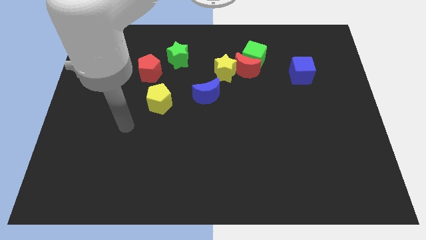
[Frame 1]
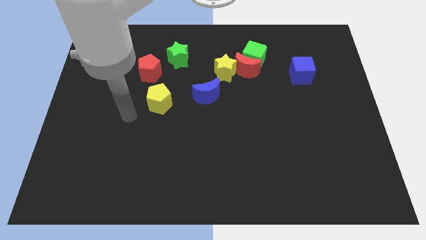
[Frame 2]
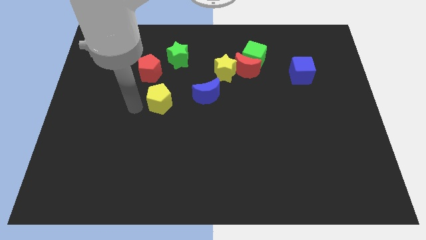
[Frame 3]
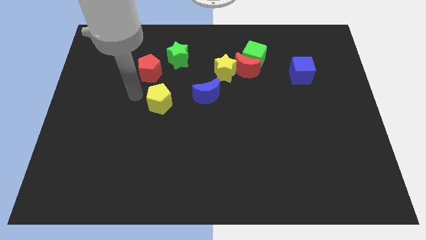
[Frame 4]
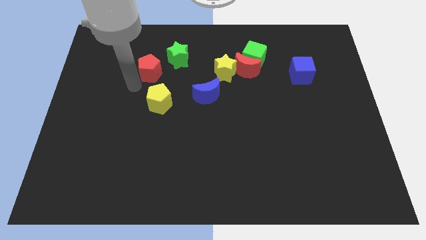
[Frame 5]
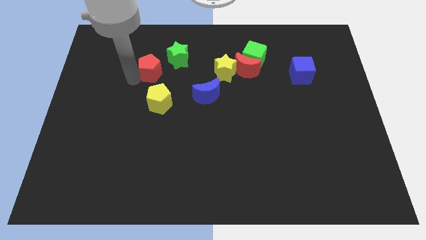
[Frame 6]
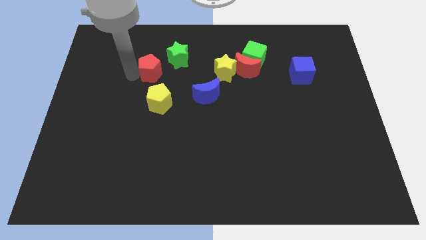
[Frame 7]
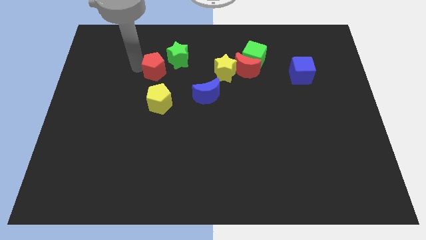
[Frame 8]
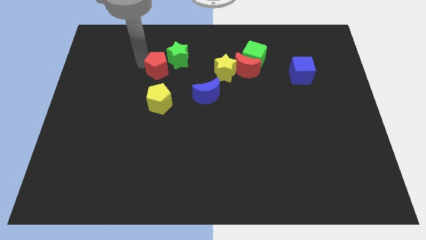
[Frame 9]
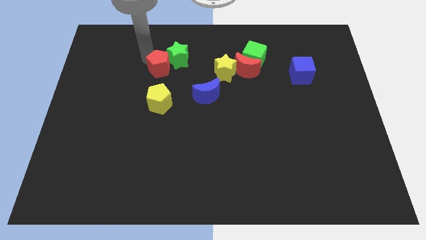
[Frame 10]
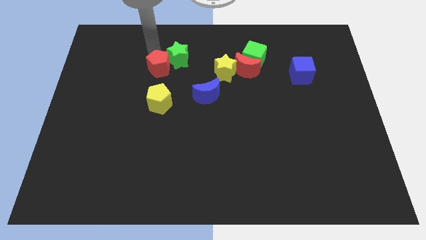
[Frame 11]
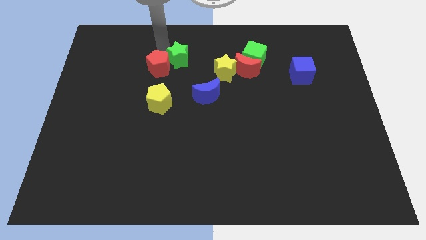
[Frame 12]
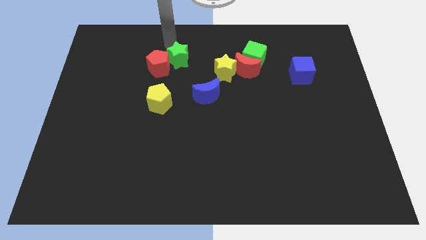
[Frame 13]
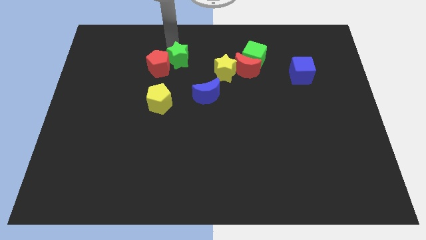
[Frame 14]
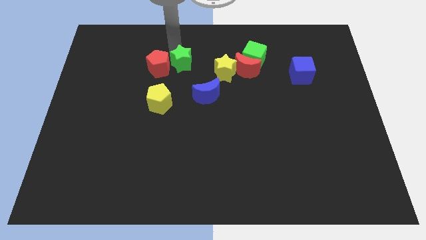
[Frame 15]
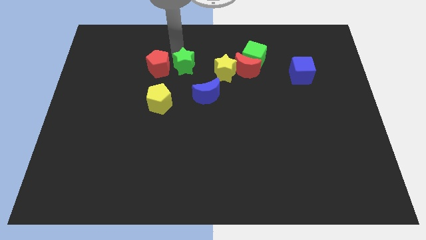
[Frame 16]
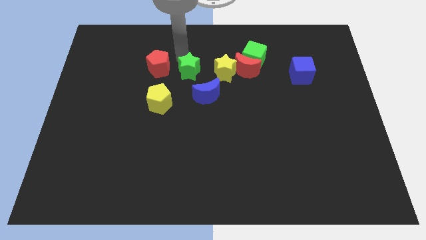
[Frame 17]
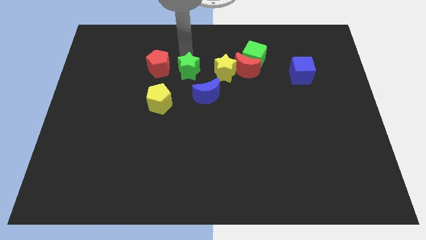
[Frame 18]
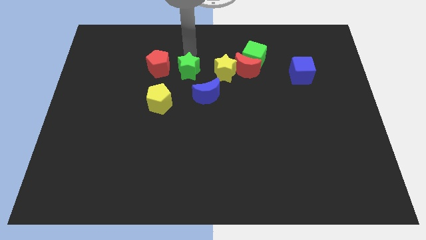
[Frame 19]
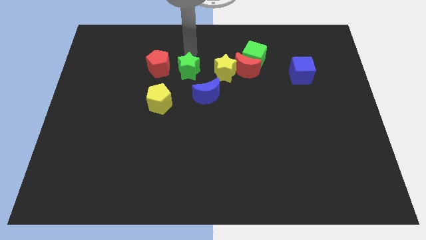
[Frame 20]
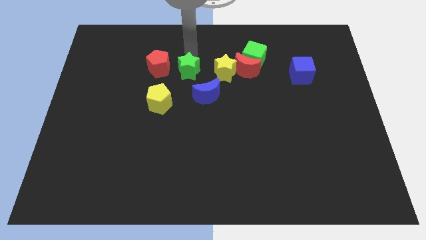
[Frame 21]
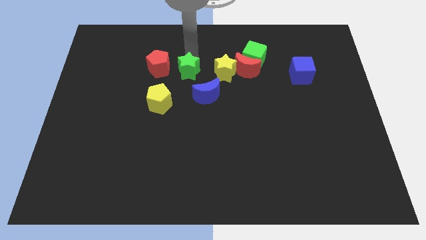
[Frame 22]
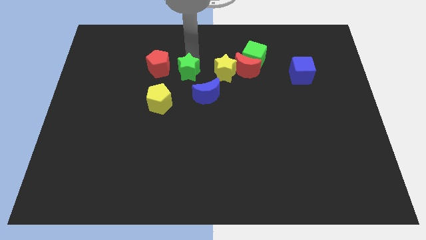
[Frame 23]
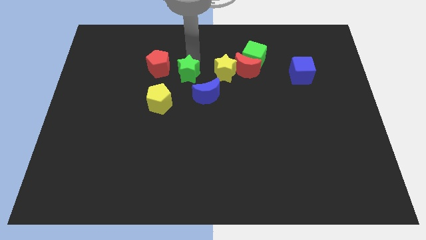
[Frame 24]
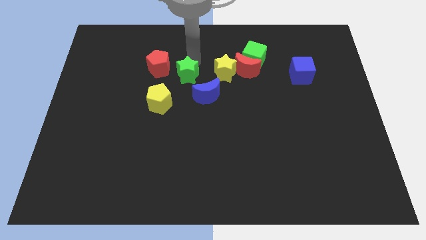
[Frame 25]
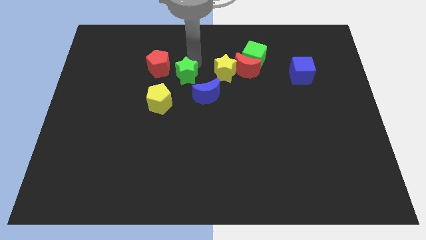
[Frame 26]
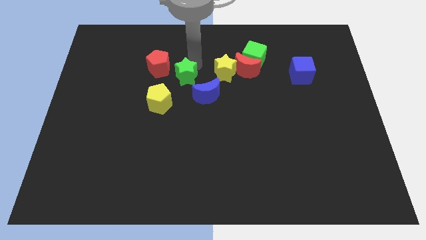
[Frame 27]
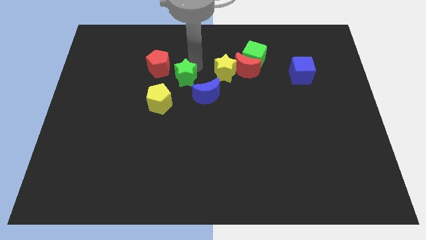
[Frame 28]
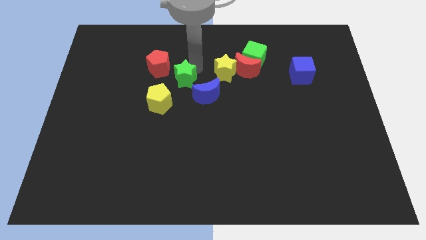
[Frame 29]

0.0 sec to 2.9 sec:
slightly slide the green star down

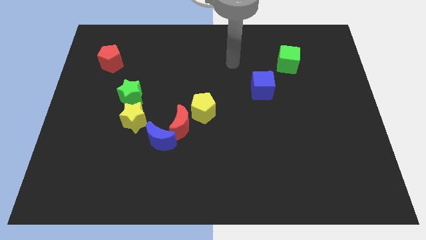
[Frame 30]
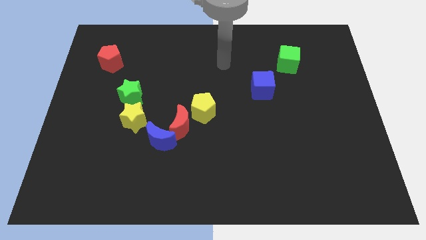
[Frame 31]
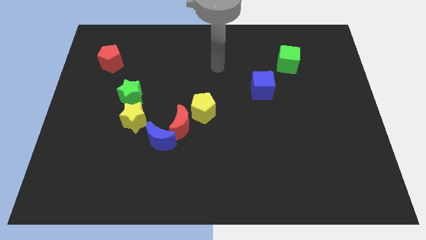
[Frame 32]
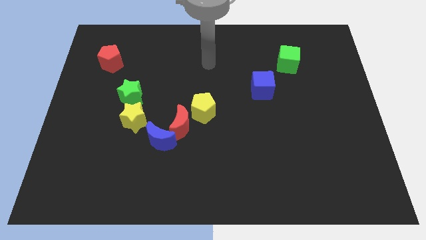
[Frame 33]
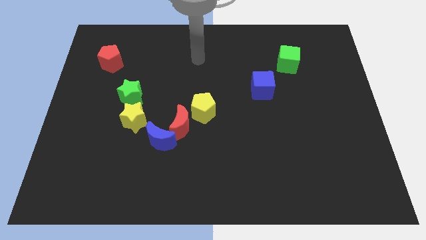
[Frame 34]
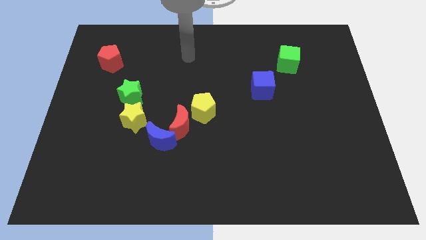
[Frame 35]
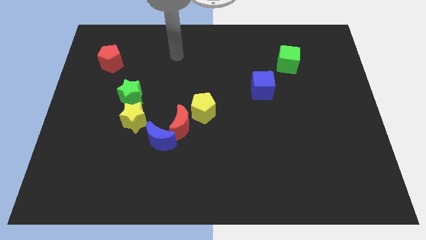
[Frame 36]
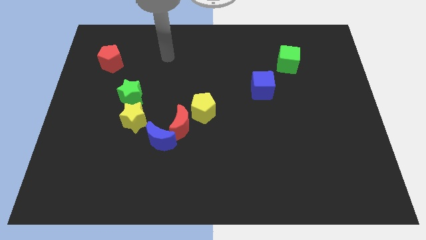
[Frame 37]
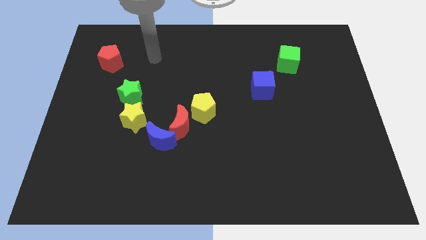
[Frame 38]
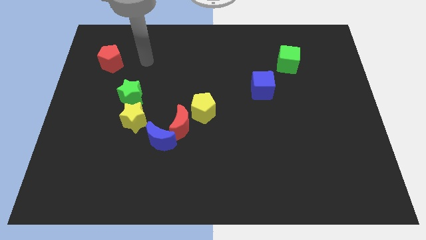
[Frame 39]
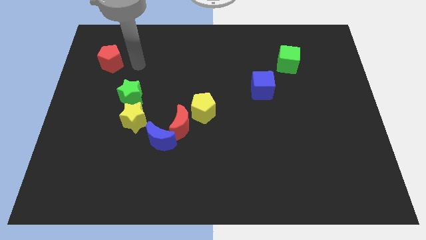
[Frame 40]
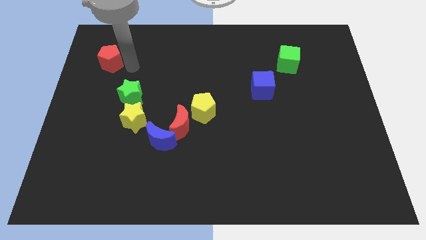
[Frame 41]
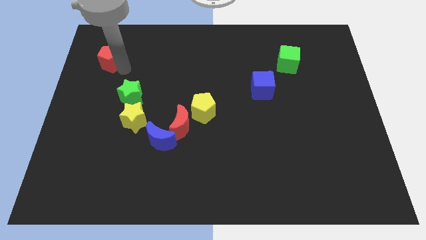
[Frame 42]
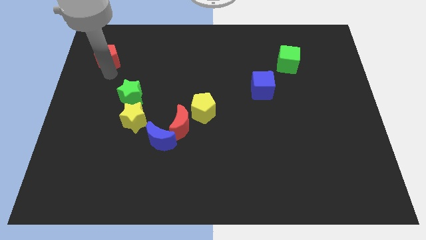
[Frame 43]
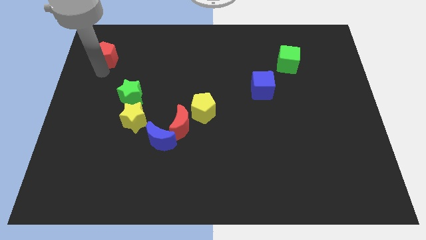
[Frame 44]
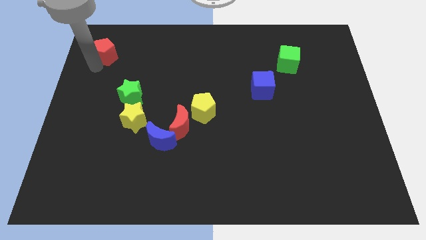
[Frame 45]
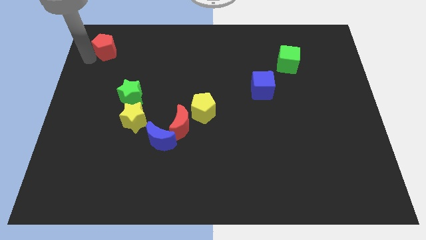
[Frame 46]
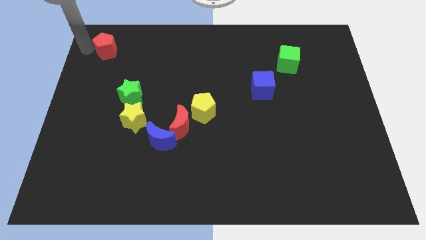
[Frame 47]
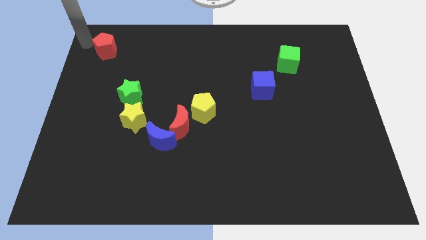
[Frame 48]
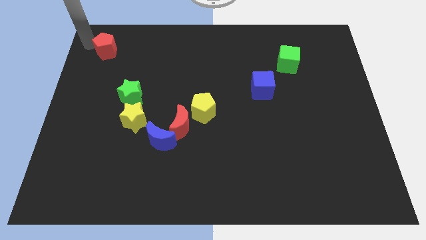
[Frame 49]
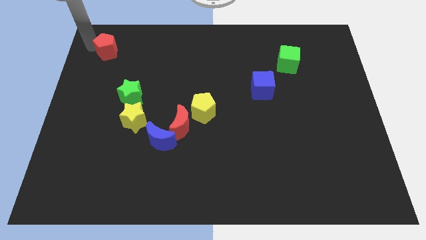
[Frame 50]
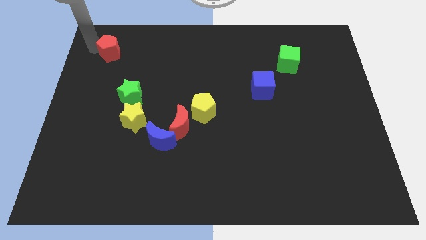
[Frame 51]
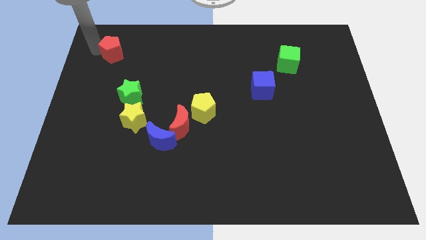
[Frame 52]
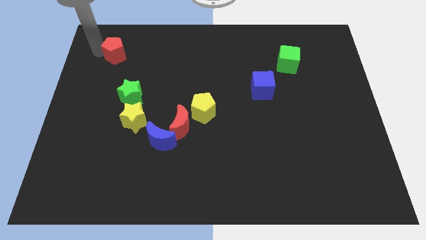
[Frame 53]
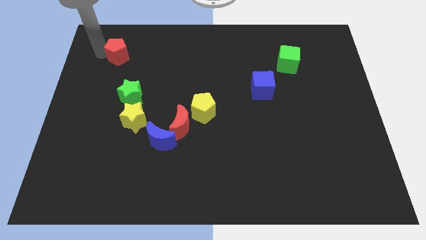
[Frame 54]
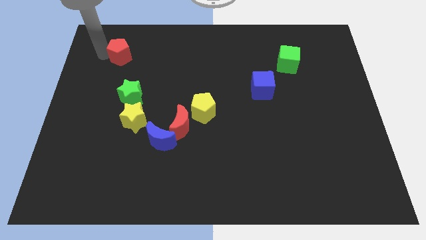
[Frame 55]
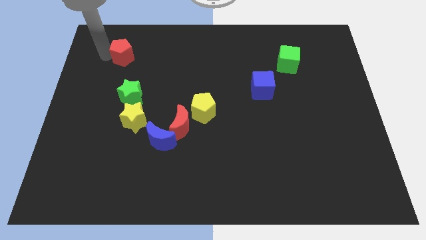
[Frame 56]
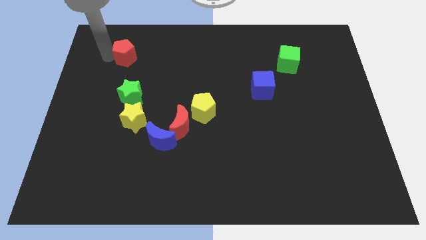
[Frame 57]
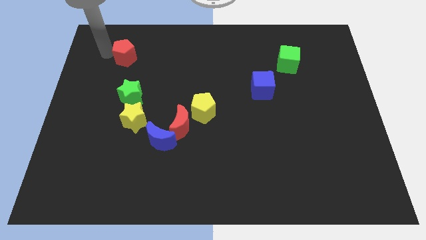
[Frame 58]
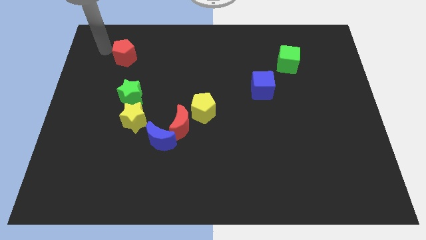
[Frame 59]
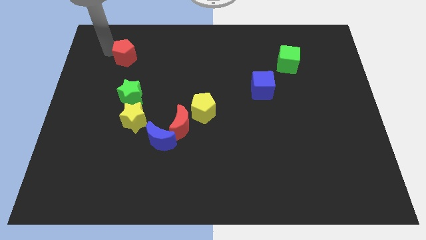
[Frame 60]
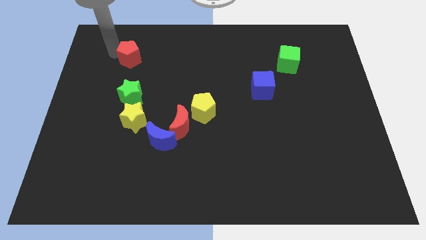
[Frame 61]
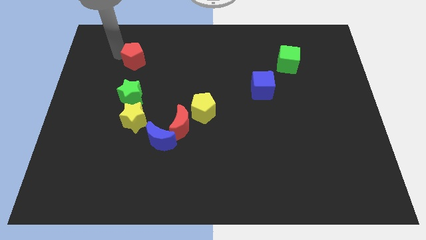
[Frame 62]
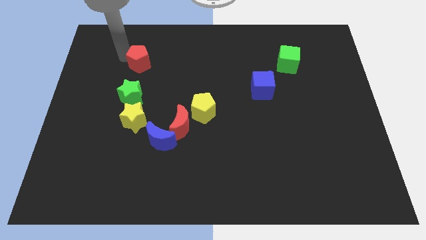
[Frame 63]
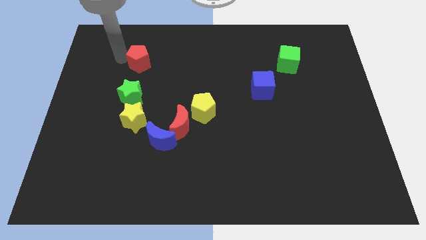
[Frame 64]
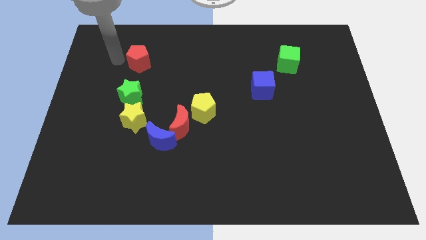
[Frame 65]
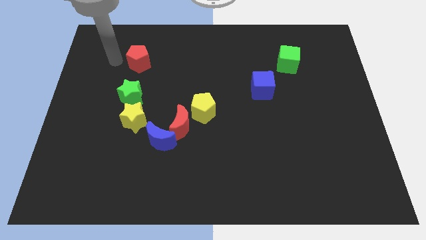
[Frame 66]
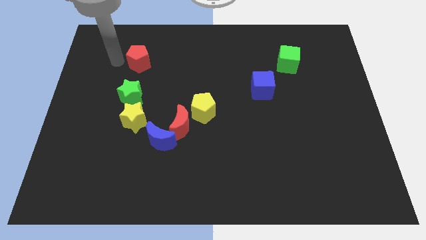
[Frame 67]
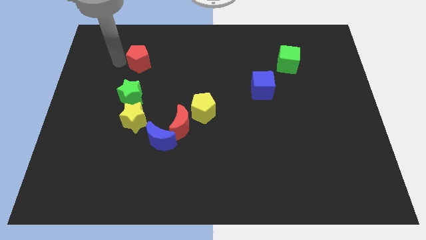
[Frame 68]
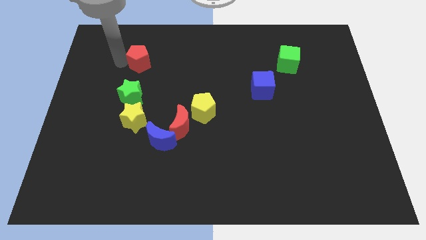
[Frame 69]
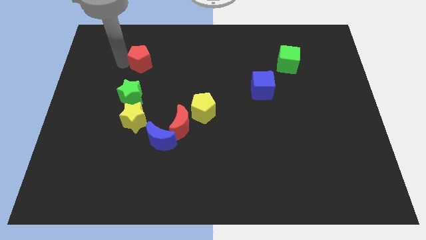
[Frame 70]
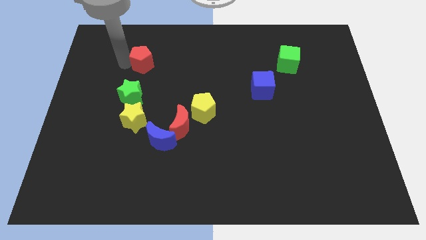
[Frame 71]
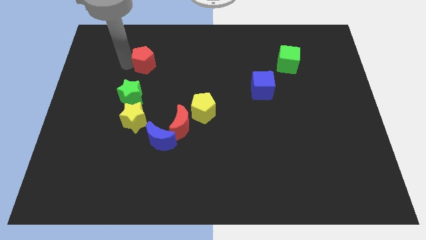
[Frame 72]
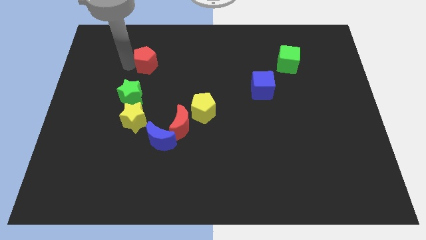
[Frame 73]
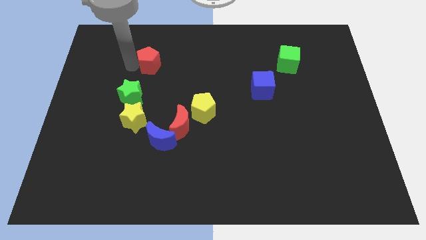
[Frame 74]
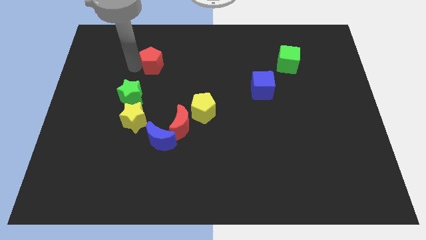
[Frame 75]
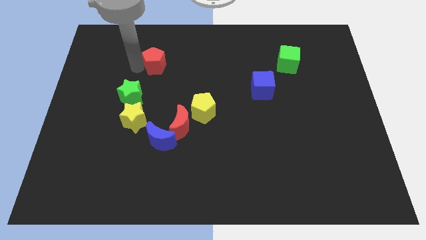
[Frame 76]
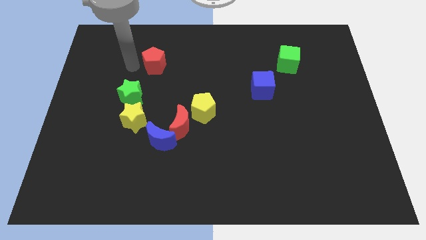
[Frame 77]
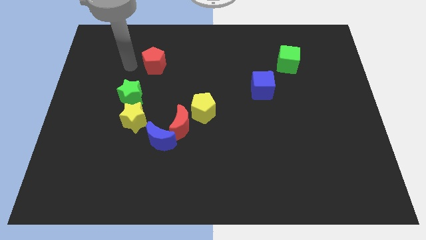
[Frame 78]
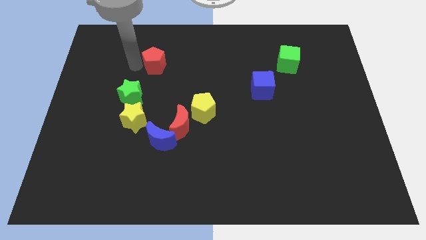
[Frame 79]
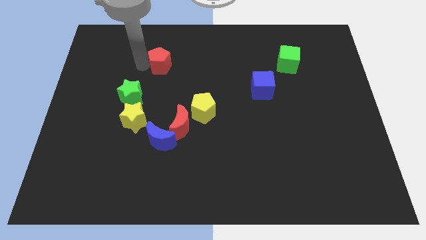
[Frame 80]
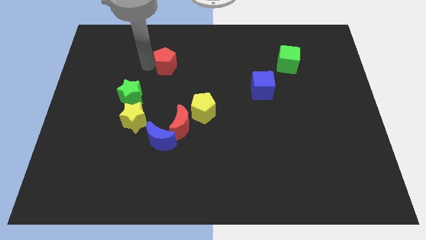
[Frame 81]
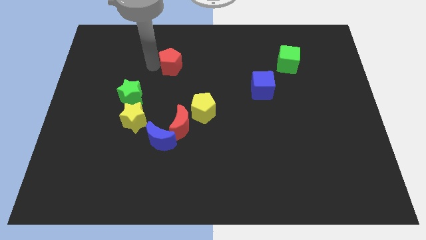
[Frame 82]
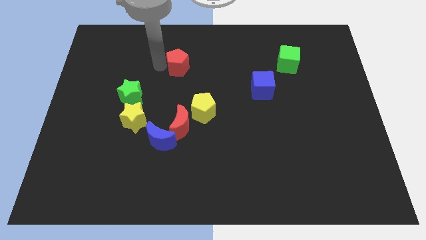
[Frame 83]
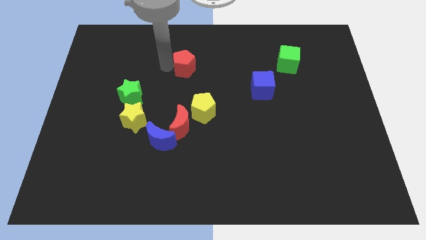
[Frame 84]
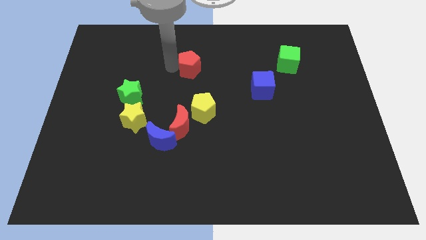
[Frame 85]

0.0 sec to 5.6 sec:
push the red pentagon right

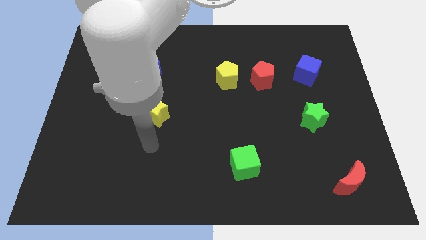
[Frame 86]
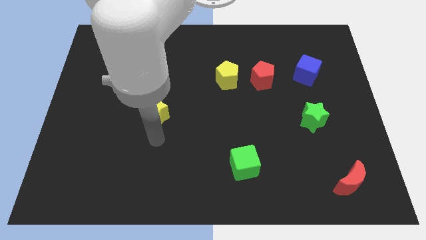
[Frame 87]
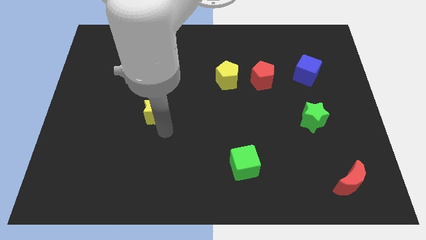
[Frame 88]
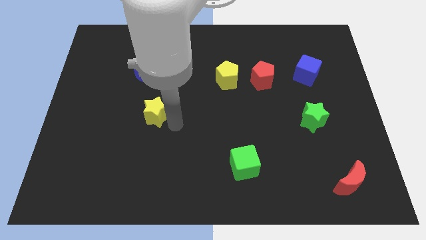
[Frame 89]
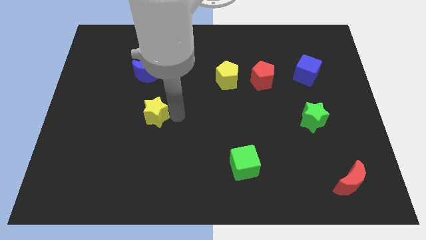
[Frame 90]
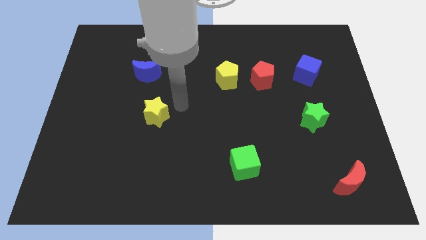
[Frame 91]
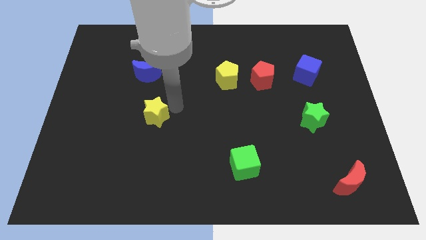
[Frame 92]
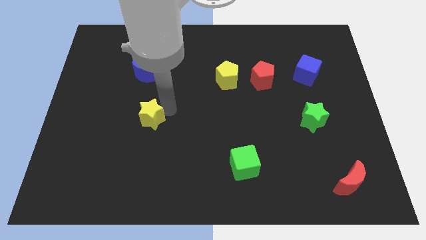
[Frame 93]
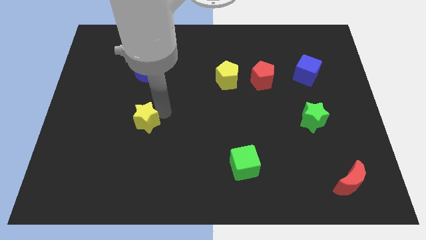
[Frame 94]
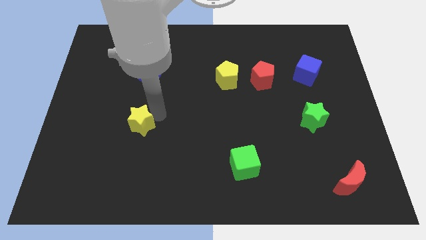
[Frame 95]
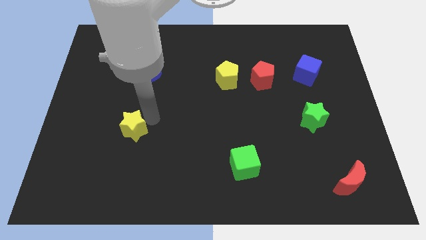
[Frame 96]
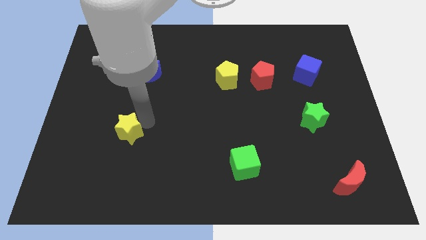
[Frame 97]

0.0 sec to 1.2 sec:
move the yellow star downwards and left diagonally slightly
